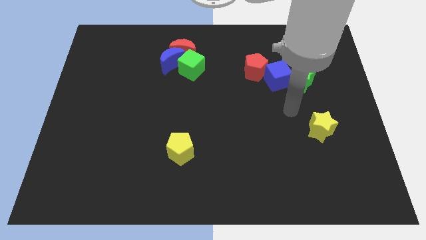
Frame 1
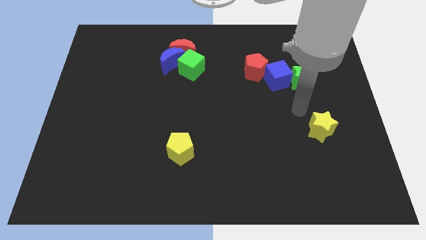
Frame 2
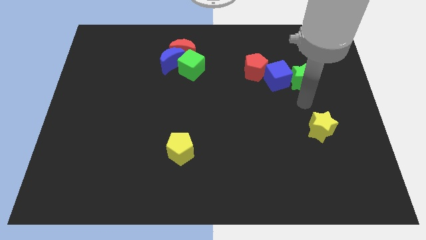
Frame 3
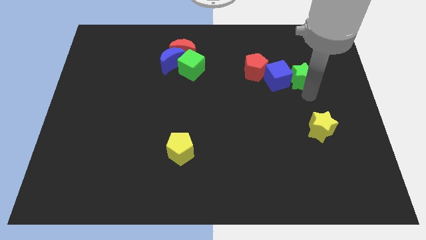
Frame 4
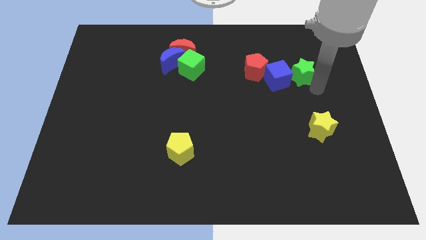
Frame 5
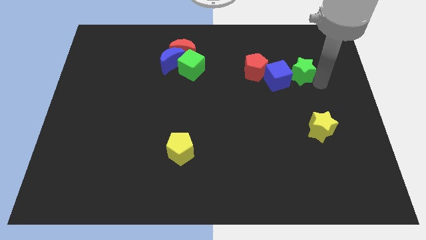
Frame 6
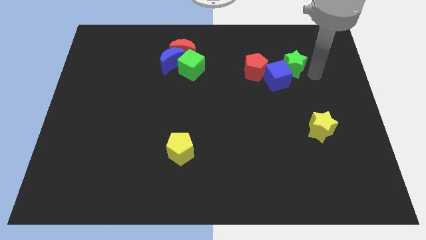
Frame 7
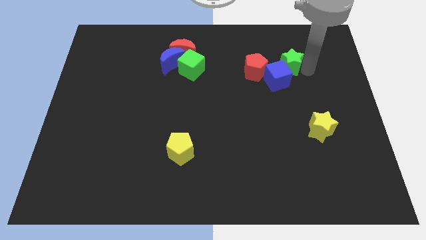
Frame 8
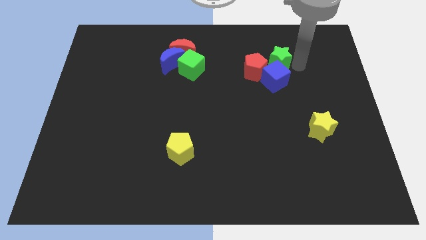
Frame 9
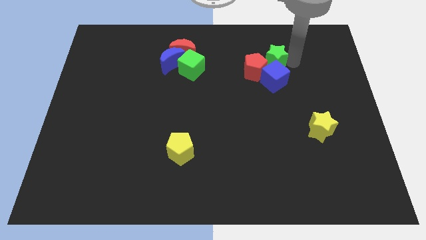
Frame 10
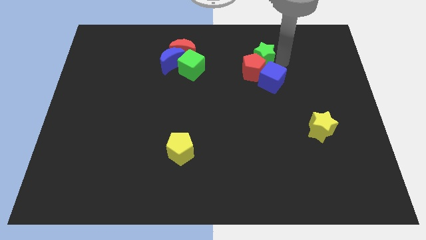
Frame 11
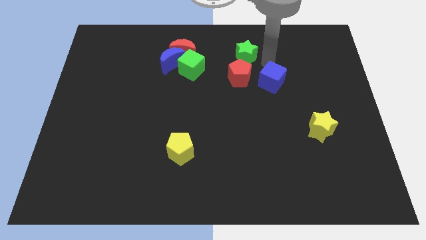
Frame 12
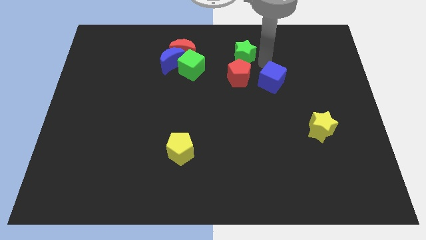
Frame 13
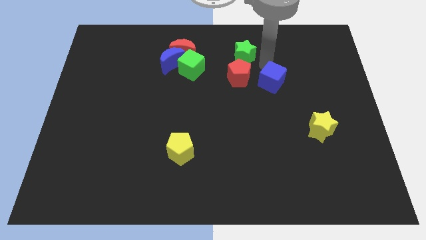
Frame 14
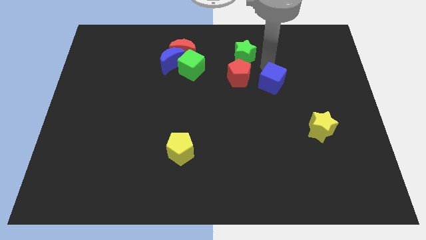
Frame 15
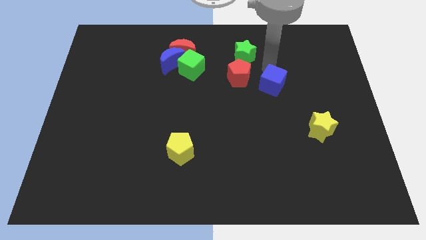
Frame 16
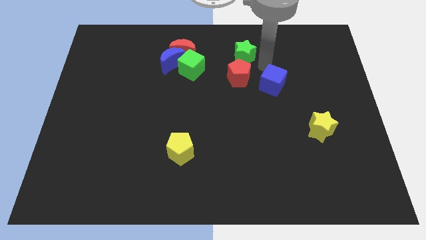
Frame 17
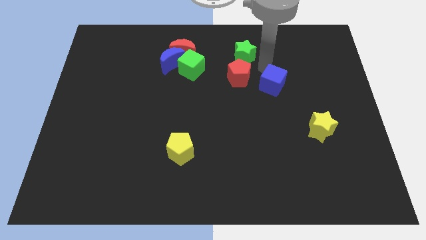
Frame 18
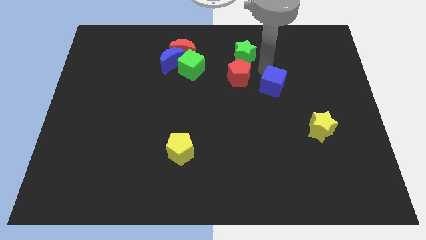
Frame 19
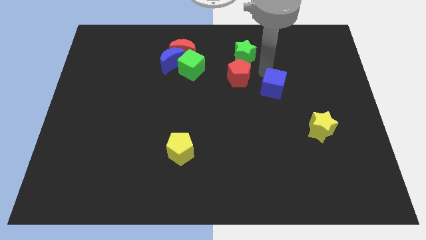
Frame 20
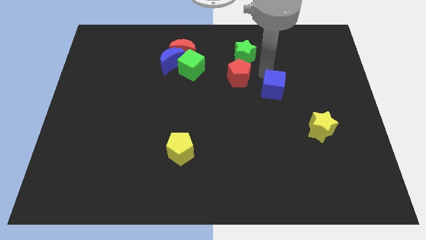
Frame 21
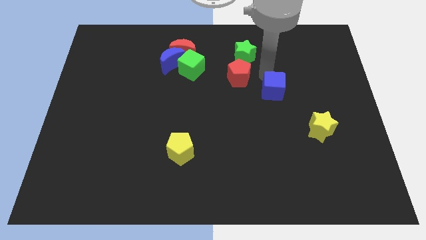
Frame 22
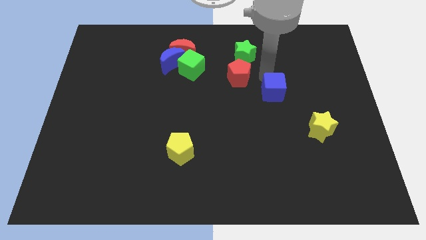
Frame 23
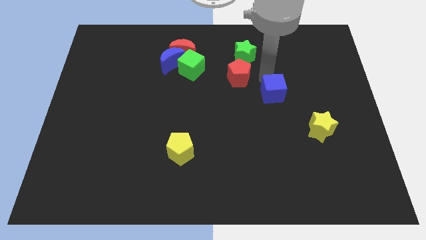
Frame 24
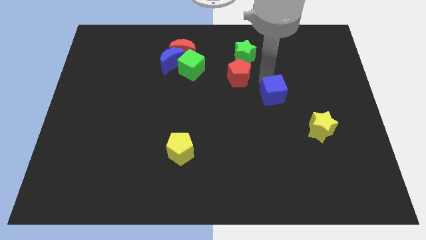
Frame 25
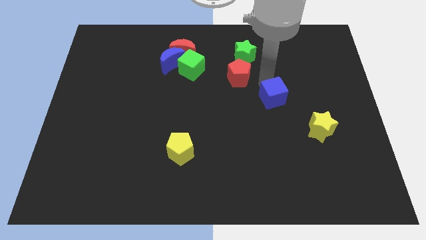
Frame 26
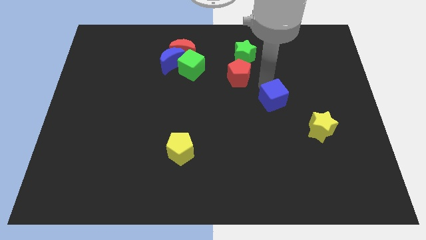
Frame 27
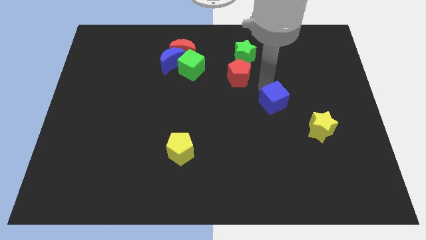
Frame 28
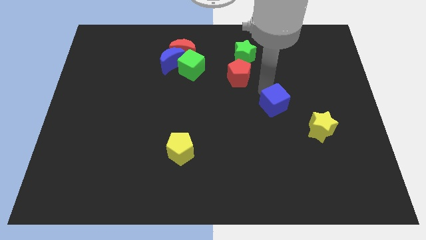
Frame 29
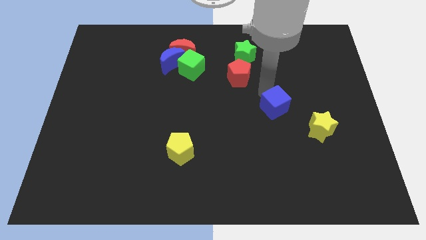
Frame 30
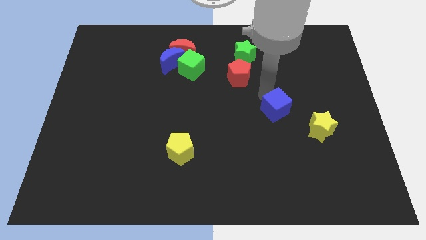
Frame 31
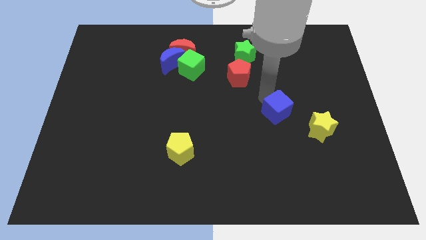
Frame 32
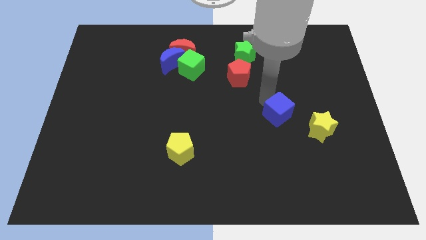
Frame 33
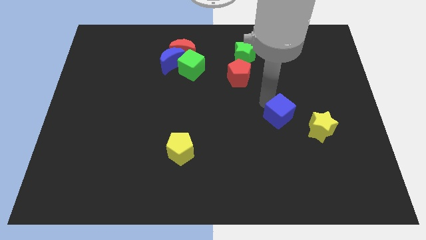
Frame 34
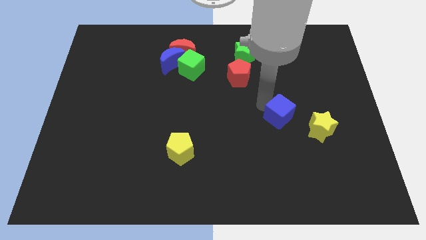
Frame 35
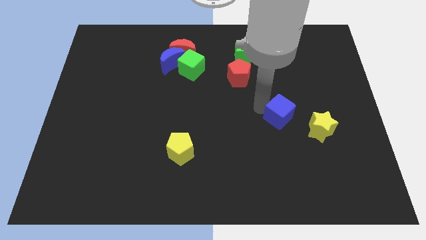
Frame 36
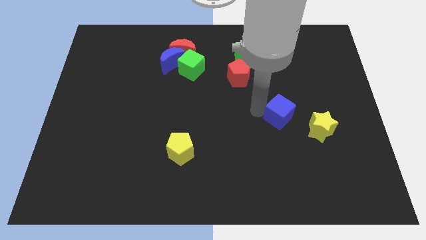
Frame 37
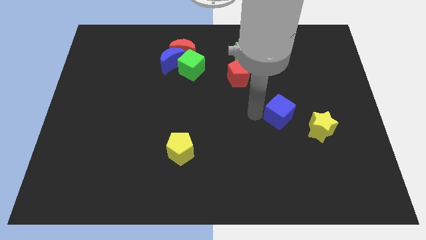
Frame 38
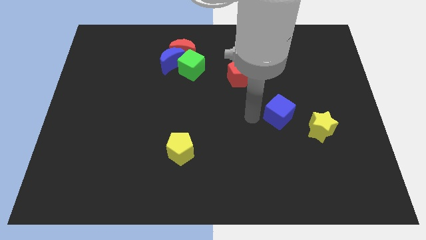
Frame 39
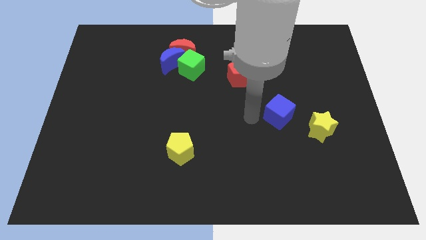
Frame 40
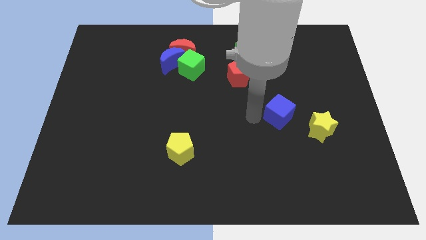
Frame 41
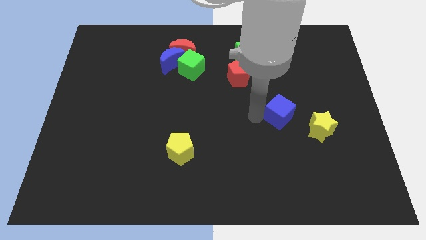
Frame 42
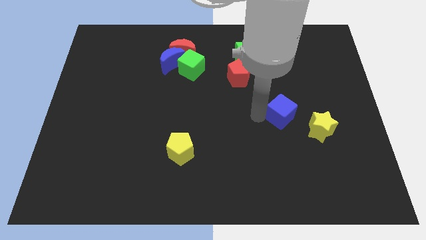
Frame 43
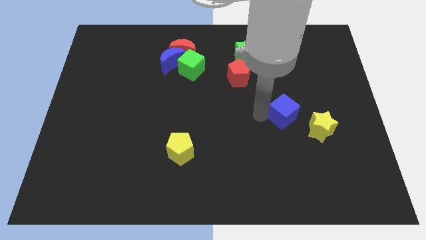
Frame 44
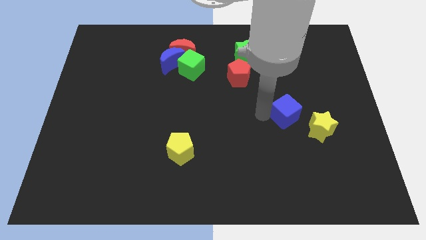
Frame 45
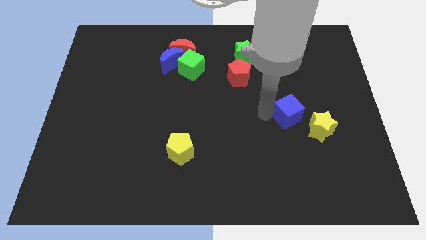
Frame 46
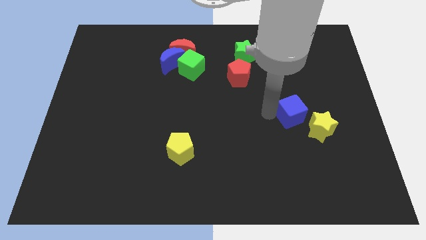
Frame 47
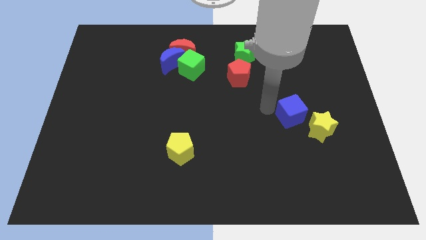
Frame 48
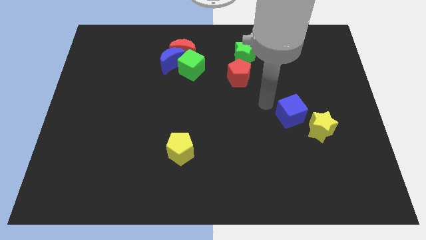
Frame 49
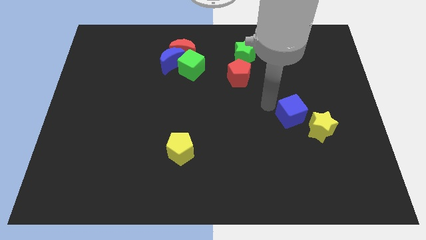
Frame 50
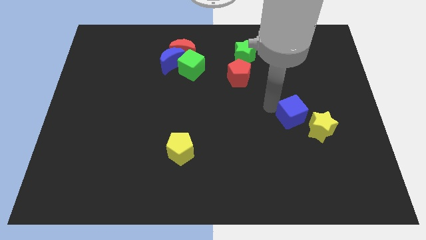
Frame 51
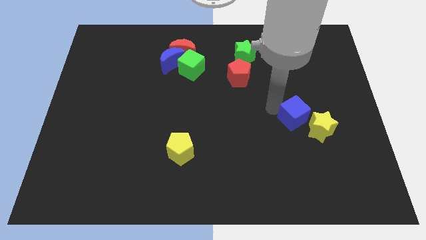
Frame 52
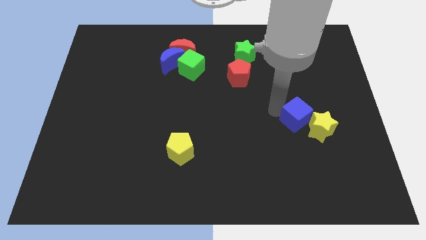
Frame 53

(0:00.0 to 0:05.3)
slide the blue cube next to the yellow star

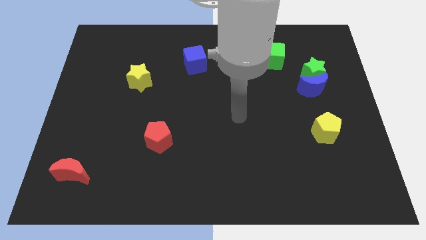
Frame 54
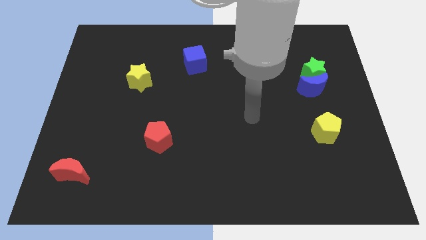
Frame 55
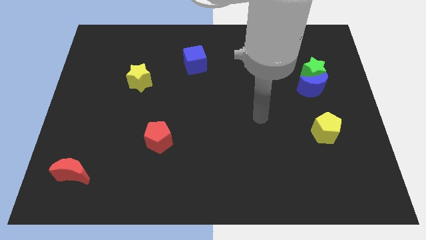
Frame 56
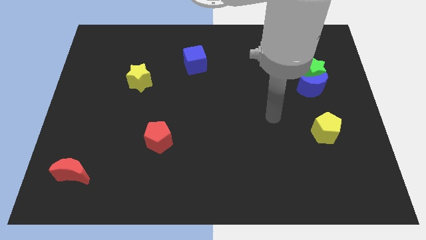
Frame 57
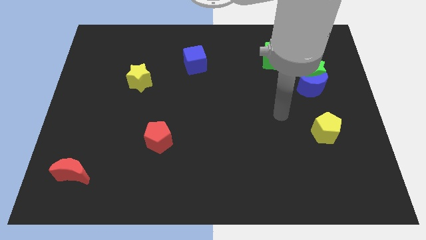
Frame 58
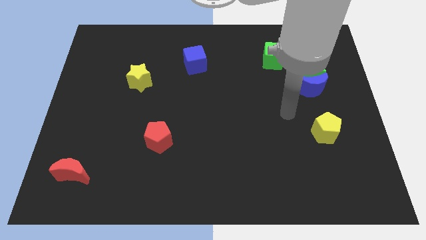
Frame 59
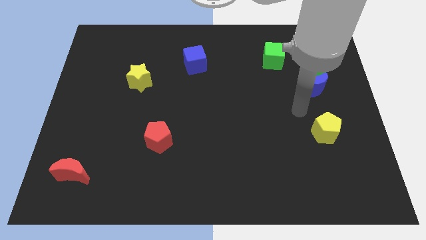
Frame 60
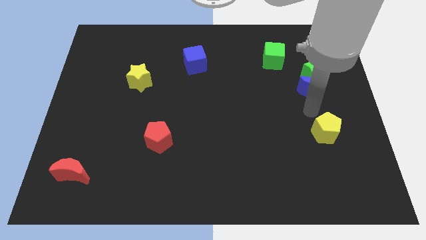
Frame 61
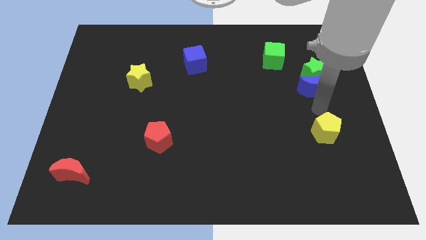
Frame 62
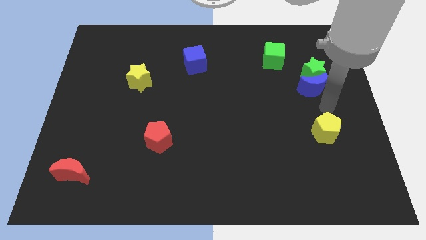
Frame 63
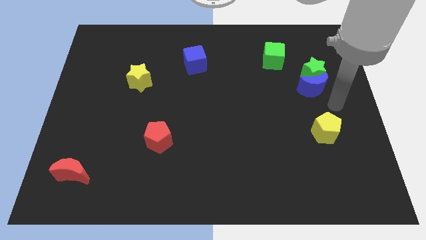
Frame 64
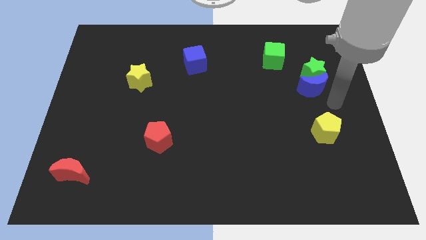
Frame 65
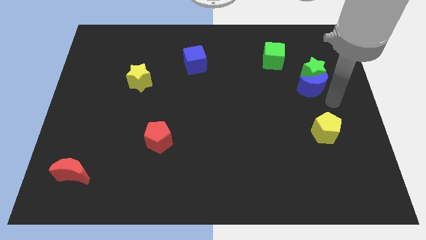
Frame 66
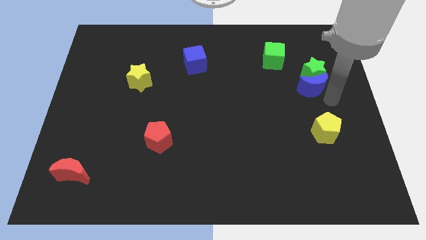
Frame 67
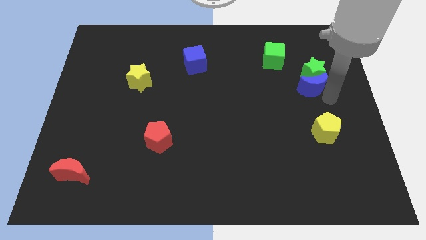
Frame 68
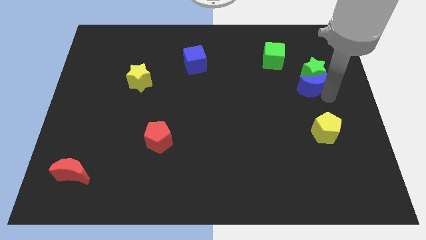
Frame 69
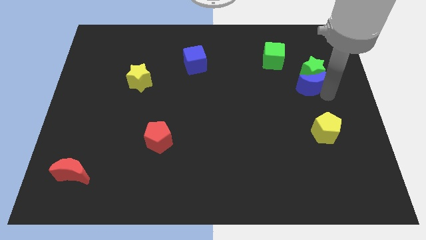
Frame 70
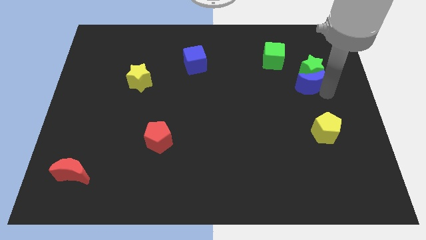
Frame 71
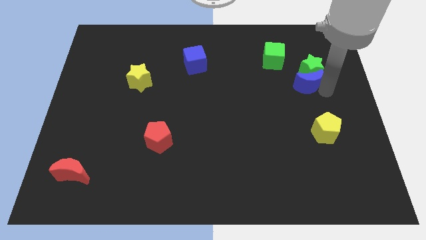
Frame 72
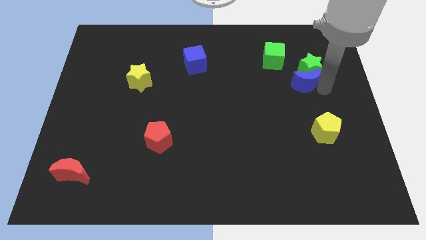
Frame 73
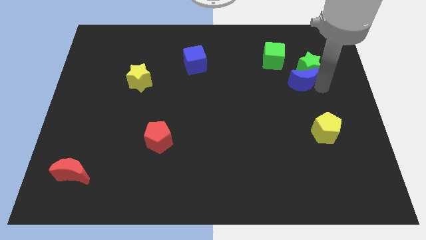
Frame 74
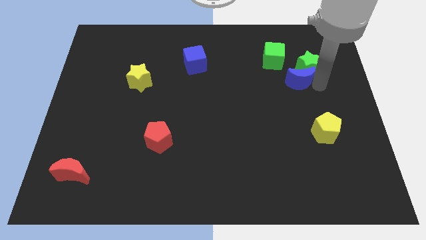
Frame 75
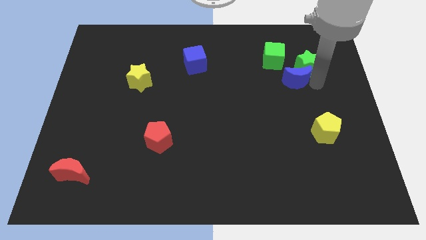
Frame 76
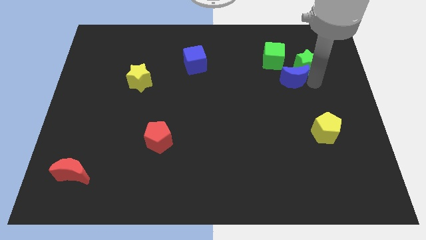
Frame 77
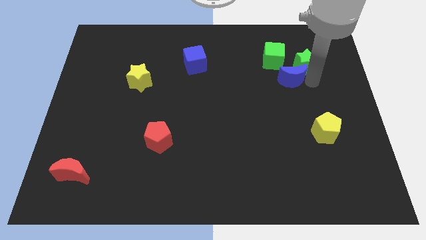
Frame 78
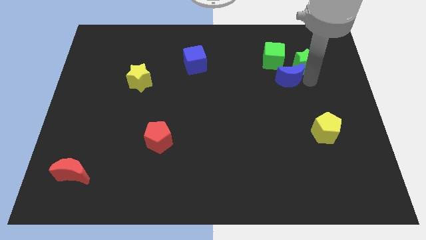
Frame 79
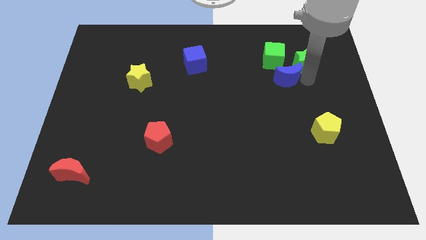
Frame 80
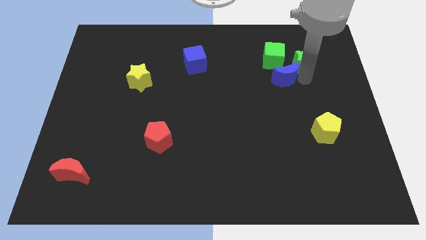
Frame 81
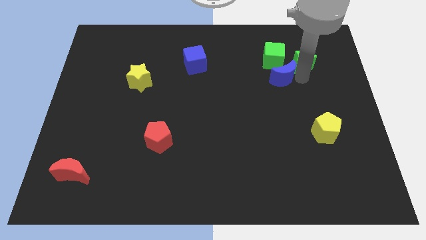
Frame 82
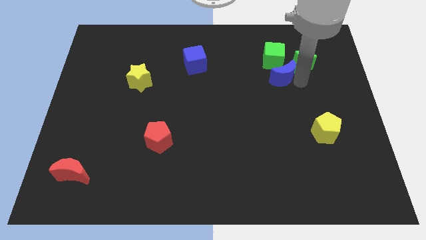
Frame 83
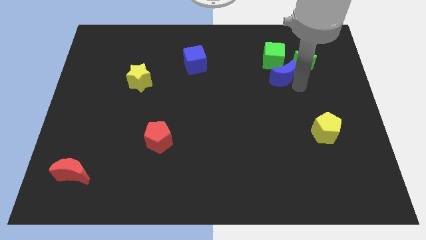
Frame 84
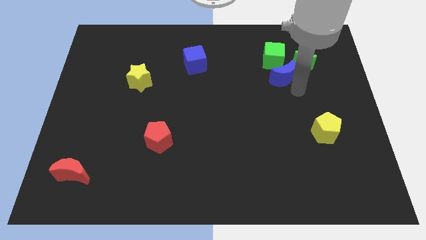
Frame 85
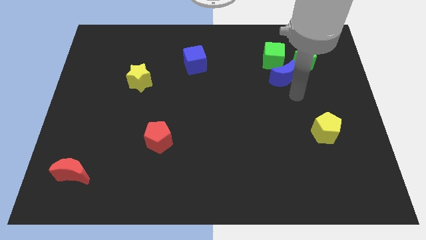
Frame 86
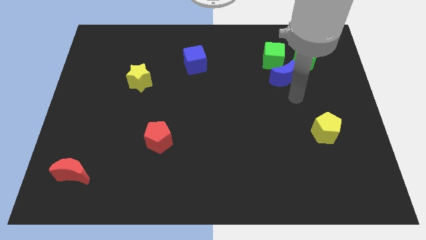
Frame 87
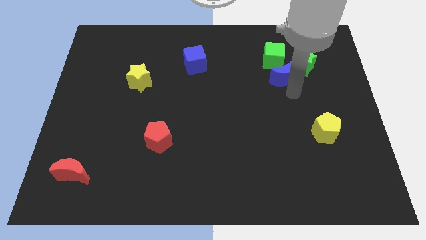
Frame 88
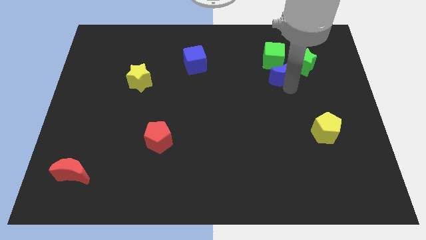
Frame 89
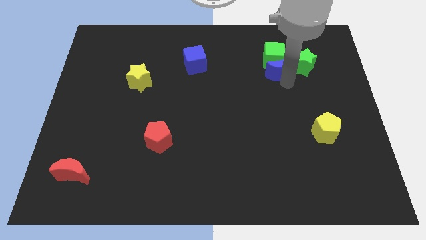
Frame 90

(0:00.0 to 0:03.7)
move the blue moon to the green cube
